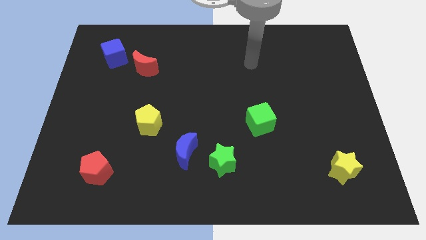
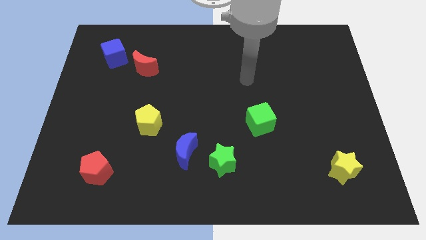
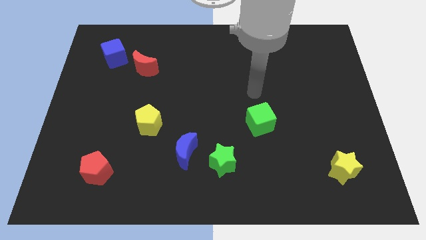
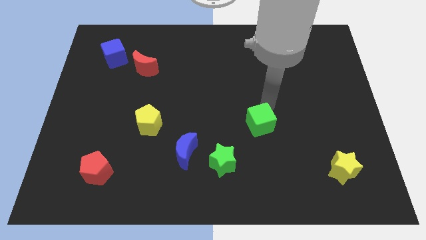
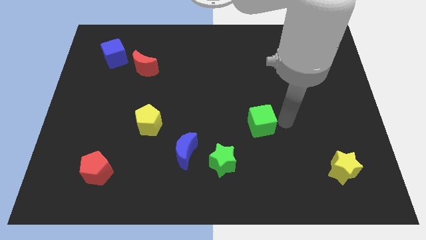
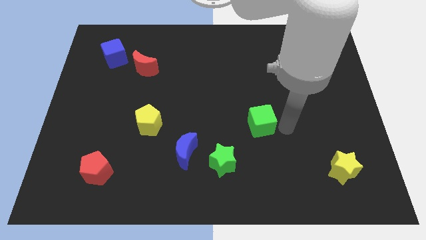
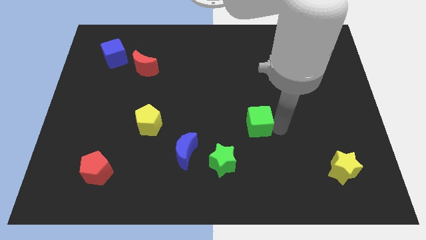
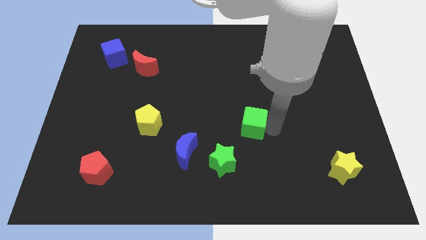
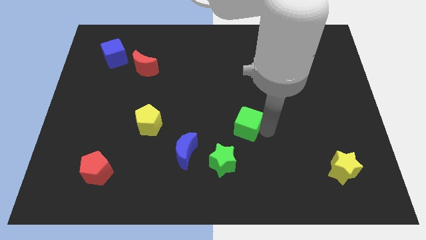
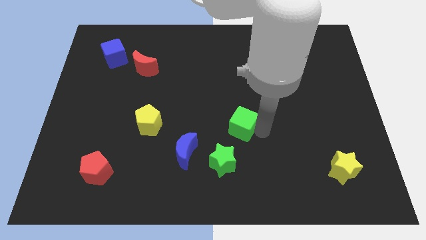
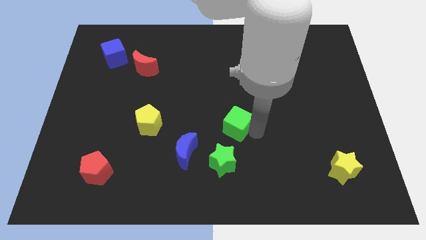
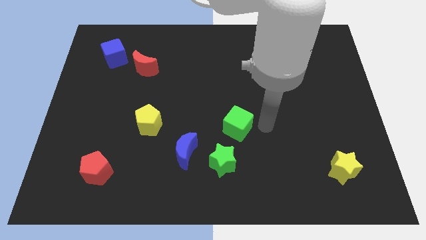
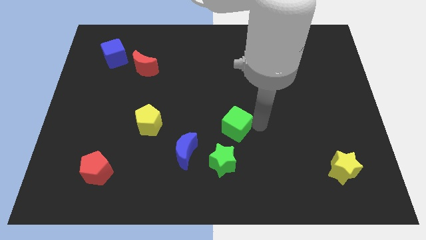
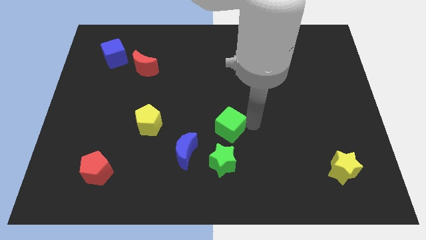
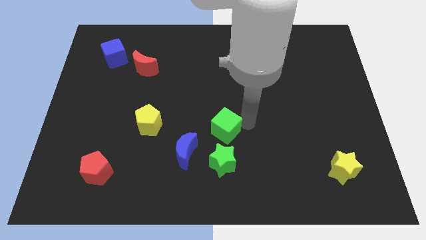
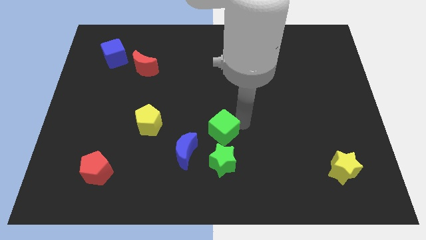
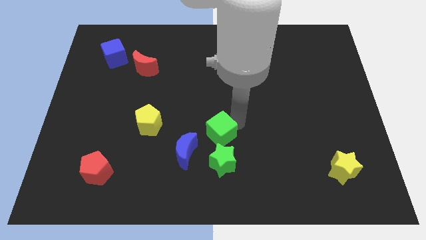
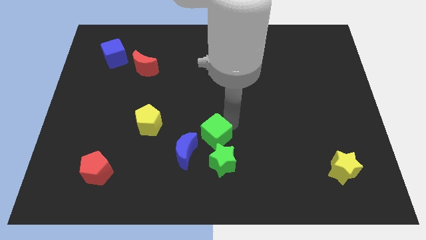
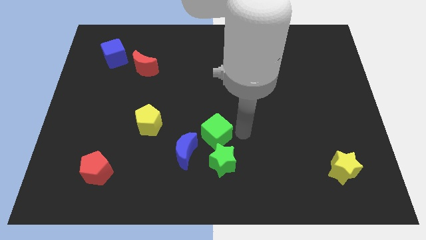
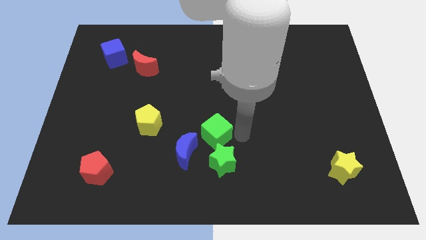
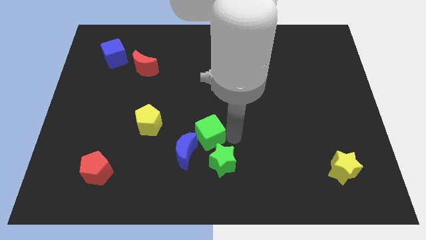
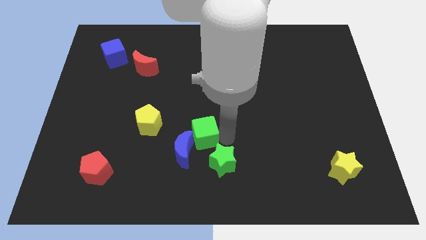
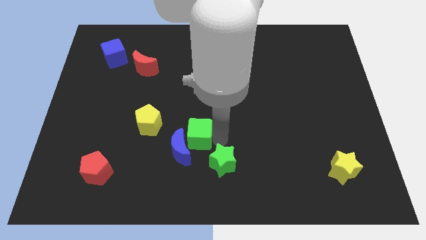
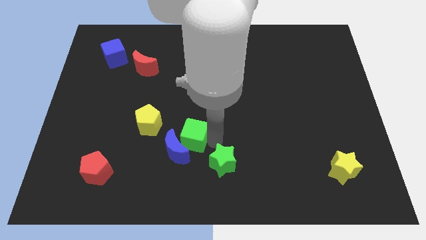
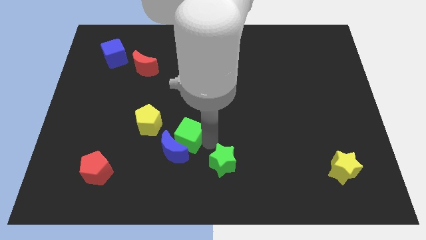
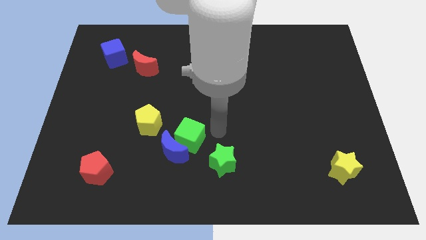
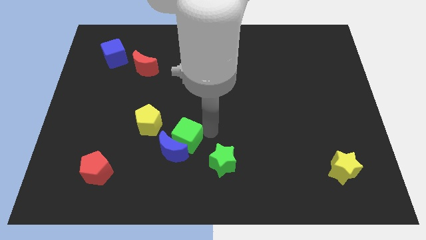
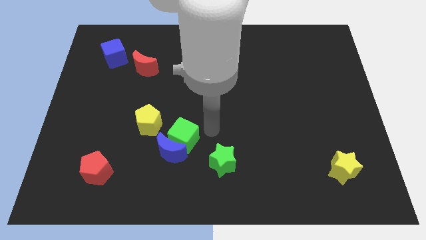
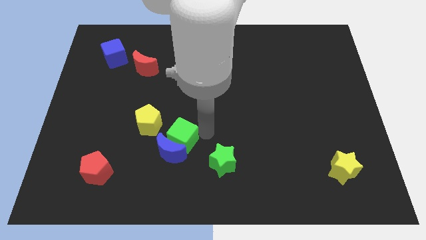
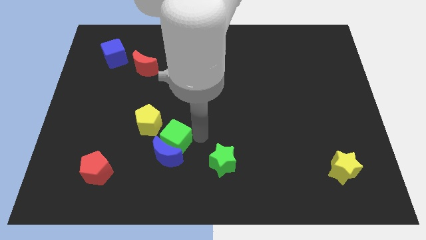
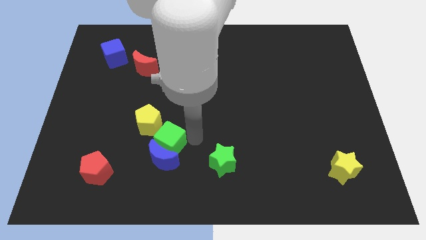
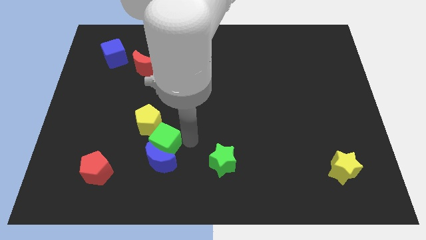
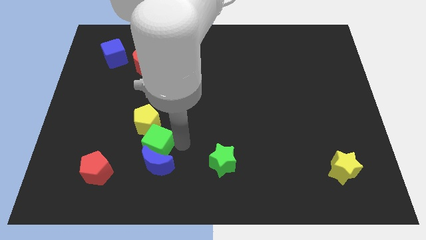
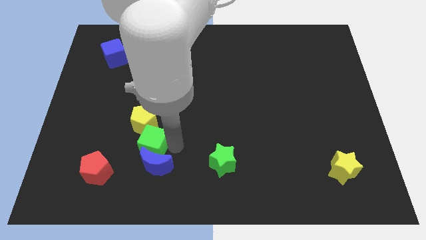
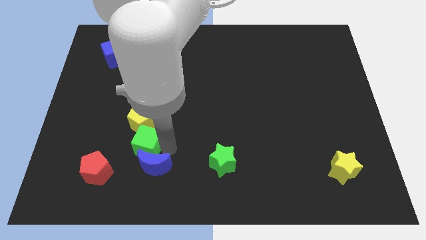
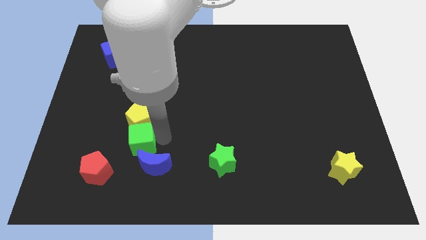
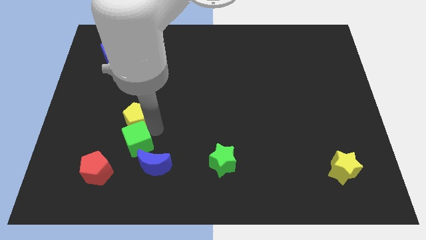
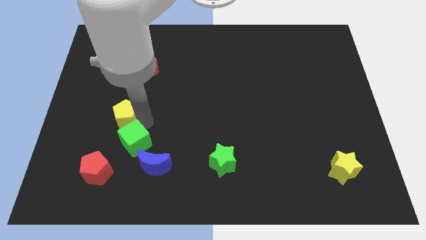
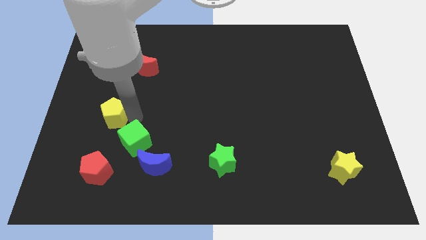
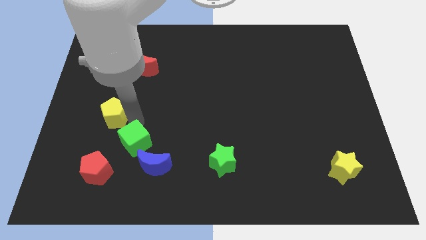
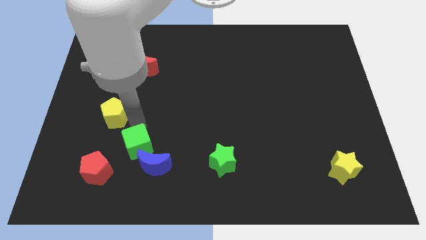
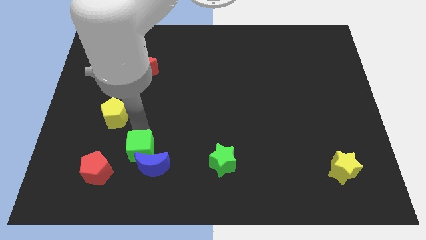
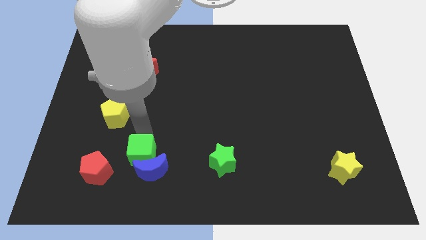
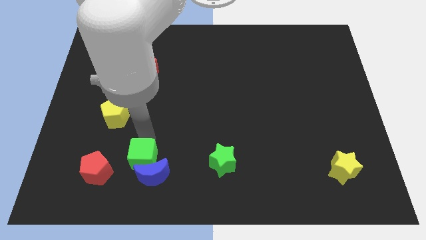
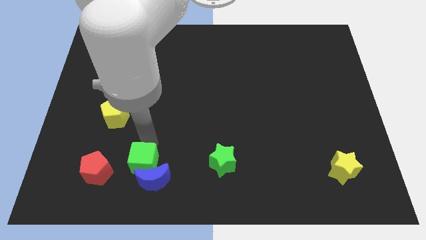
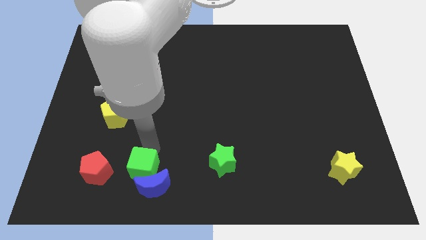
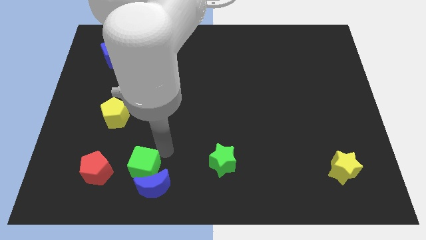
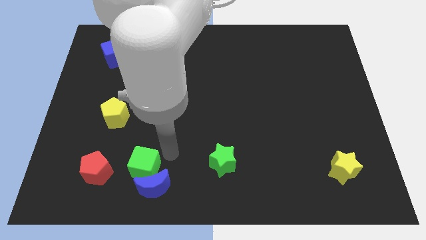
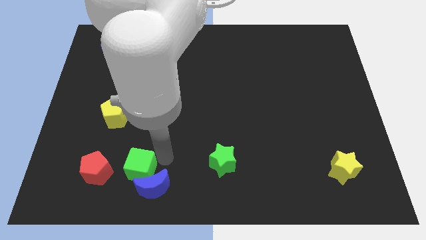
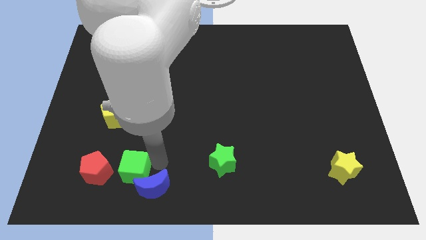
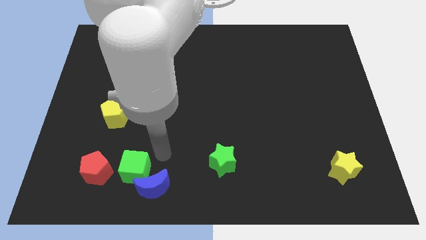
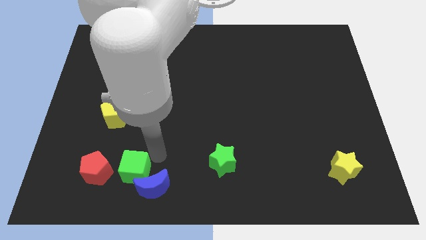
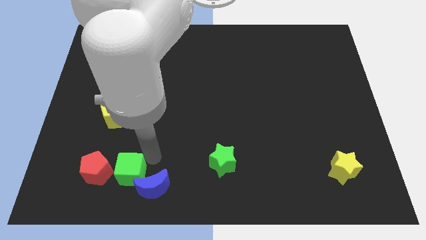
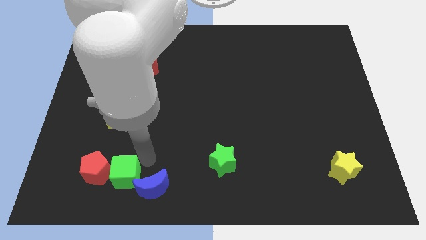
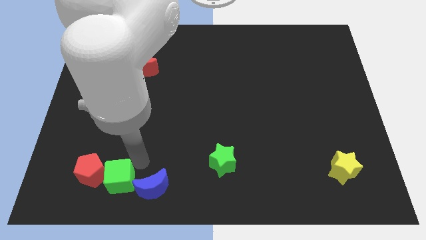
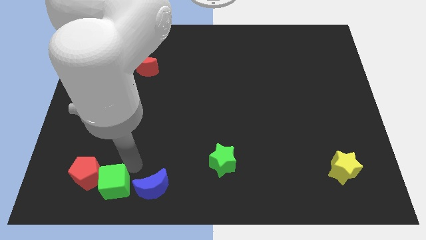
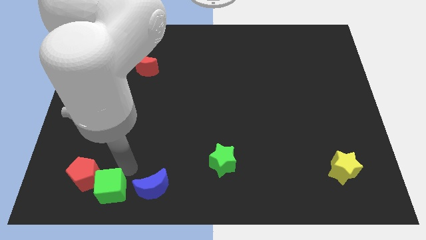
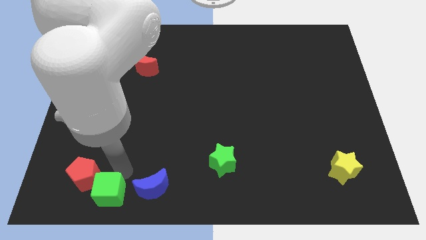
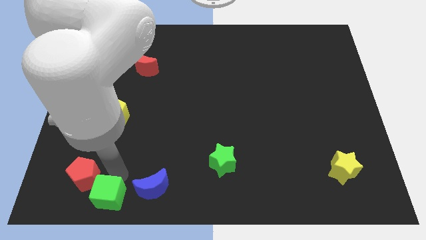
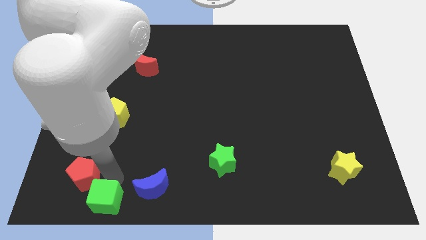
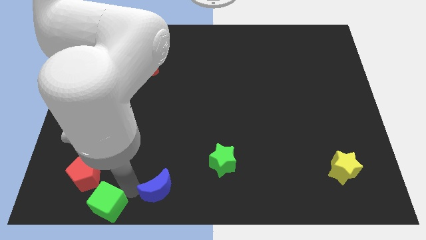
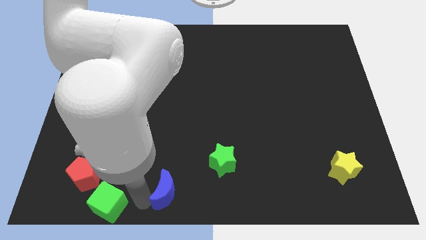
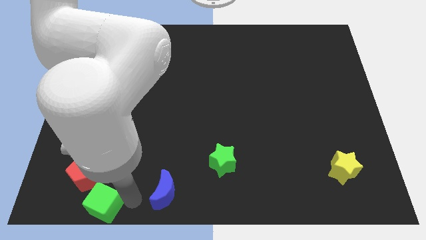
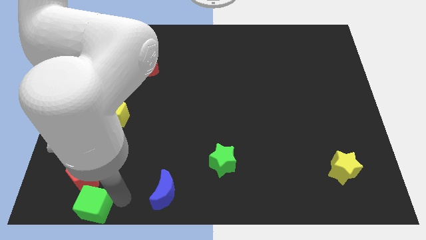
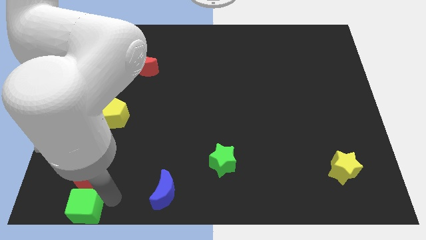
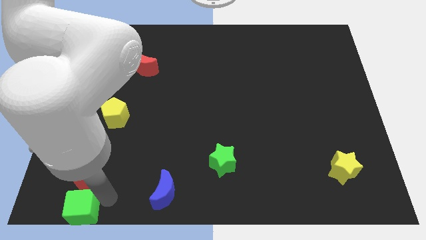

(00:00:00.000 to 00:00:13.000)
push the green cube to the bottom left of the board

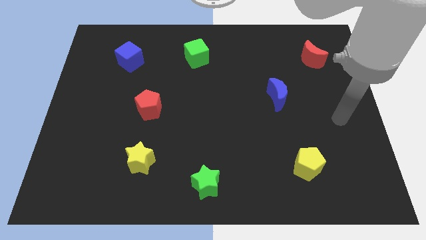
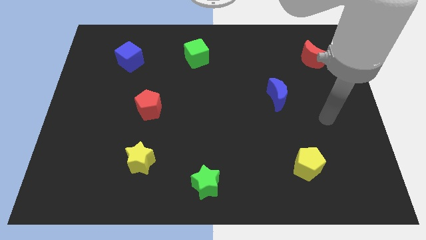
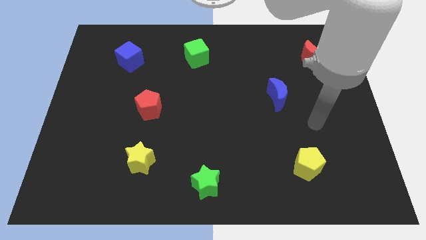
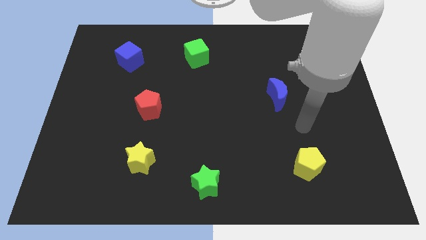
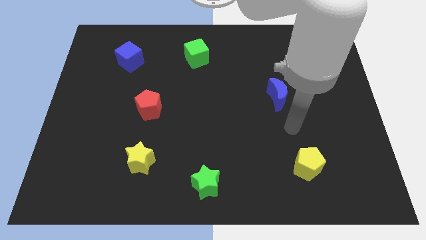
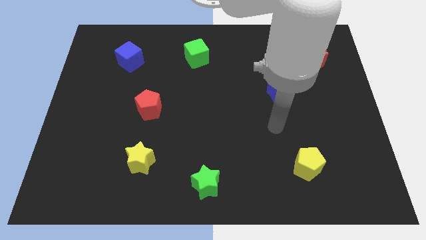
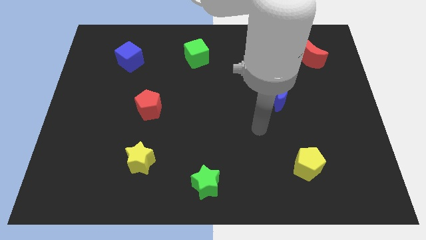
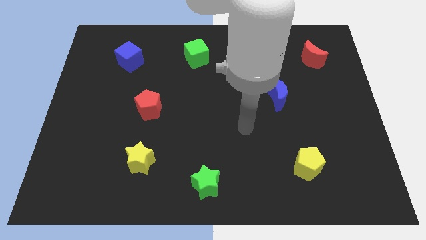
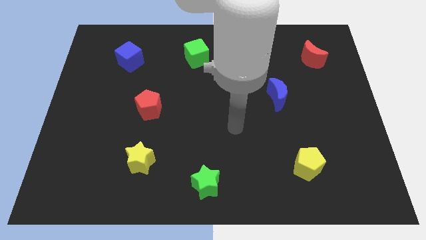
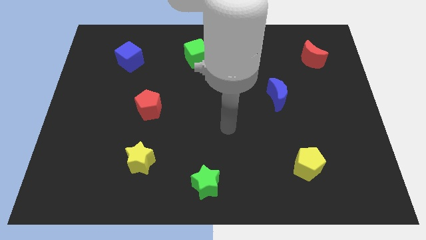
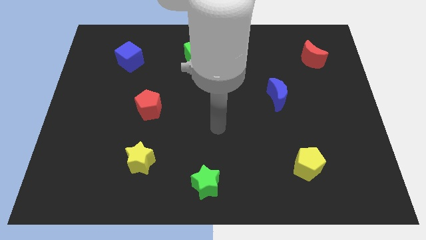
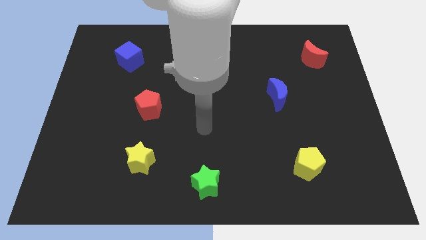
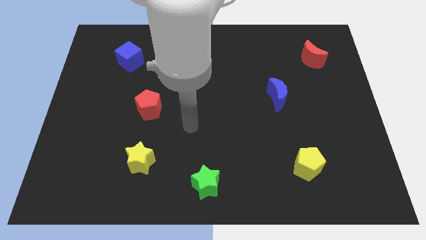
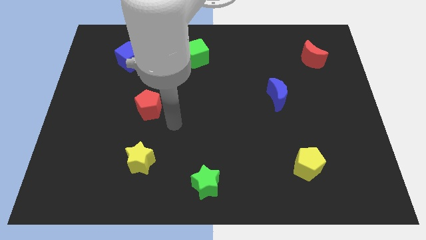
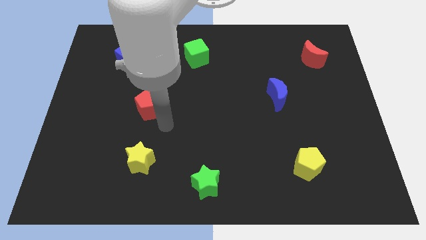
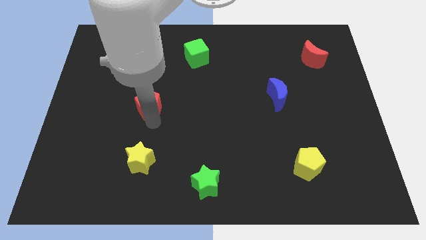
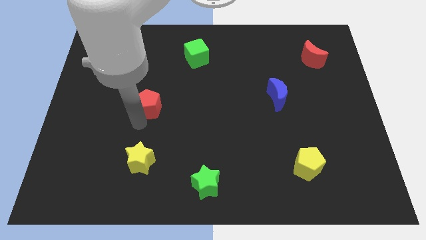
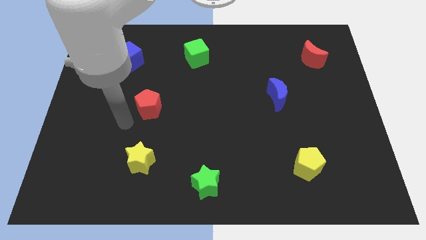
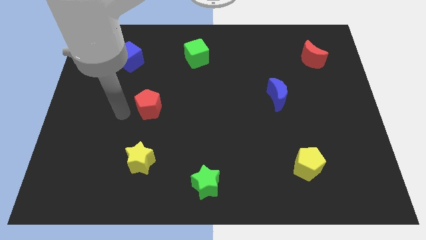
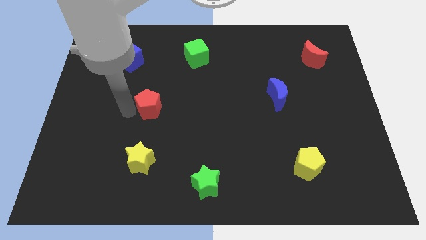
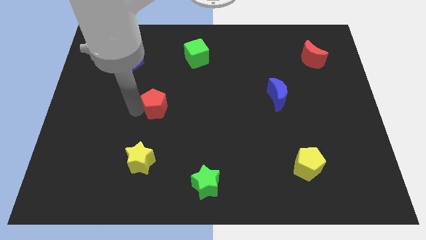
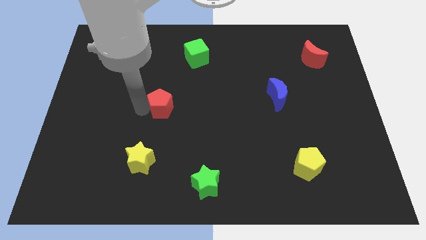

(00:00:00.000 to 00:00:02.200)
slide the red pentagon to the center of the board
